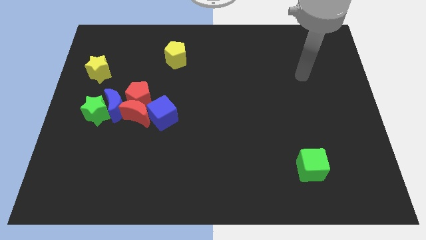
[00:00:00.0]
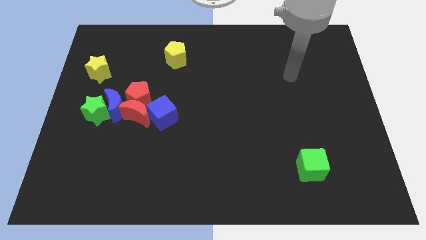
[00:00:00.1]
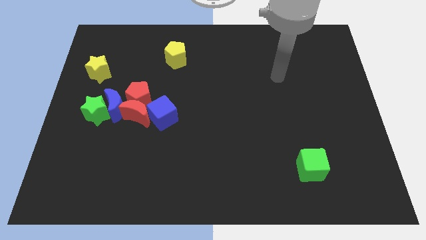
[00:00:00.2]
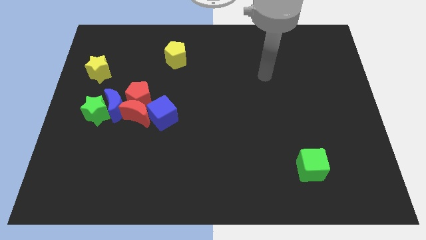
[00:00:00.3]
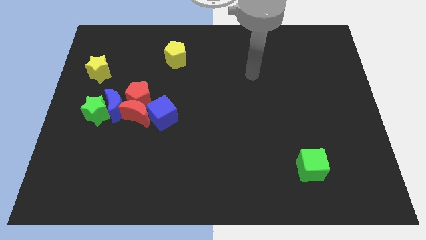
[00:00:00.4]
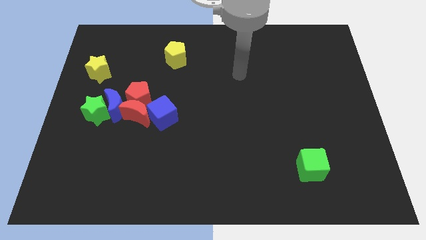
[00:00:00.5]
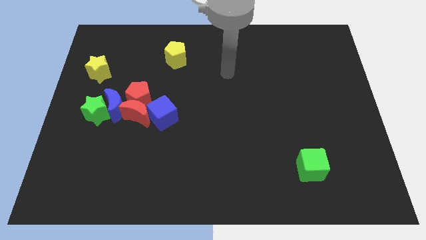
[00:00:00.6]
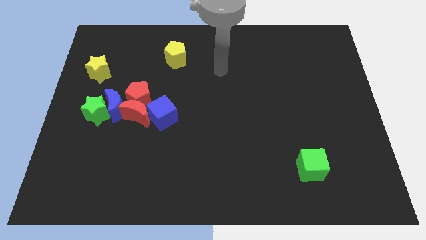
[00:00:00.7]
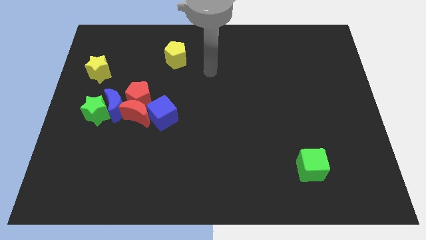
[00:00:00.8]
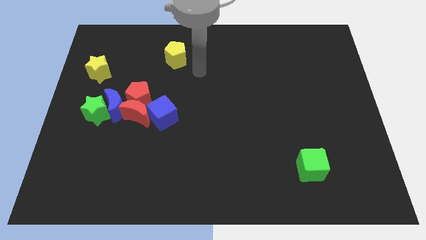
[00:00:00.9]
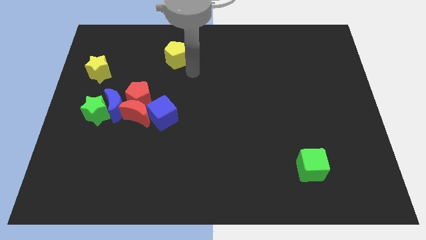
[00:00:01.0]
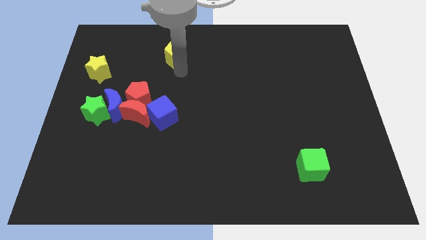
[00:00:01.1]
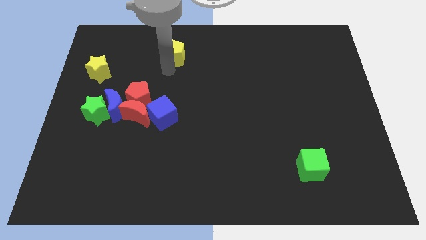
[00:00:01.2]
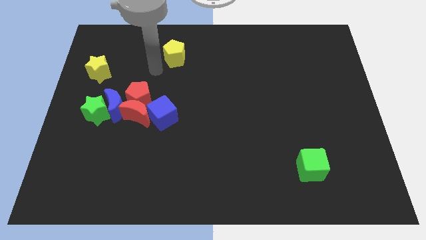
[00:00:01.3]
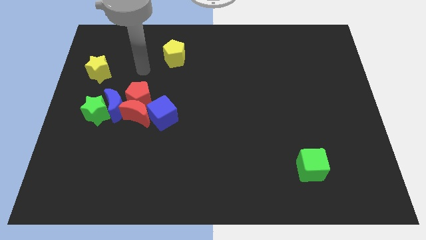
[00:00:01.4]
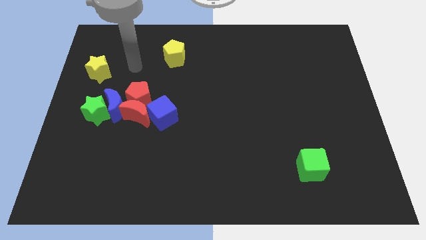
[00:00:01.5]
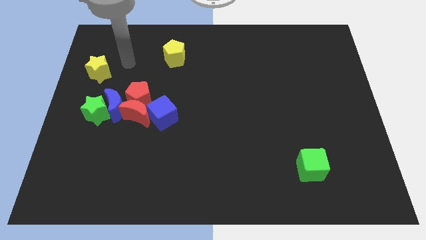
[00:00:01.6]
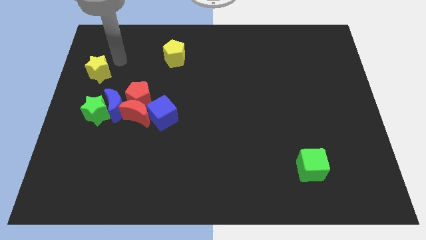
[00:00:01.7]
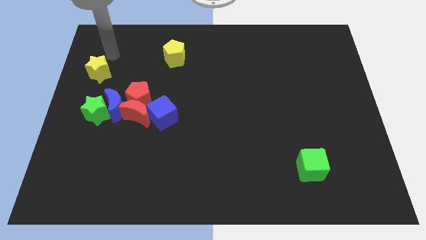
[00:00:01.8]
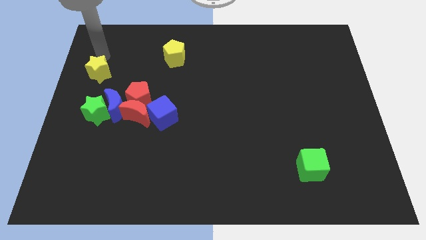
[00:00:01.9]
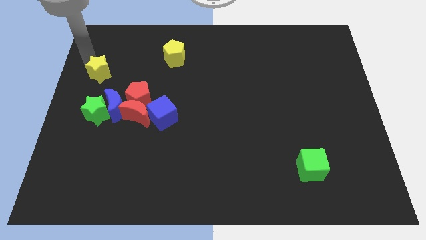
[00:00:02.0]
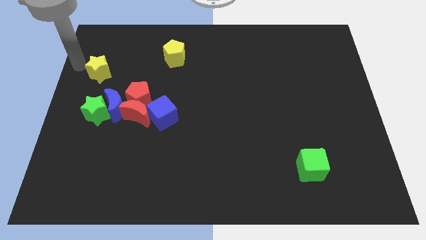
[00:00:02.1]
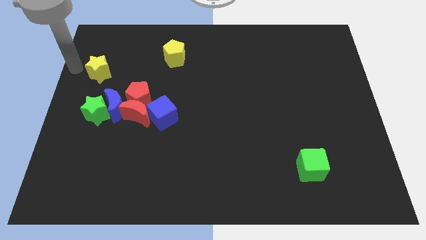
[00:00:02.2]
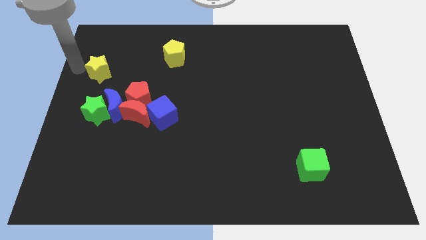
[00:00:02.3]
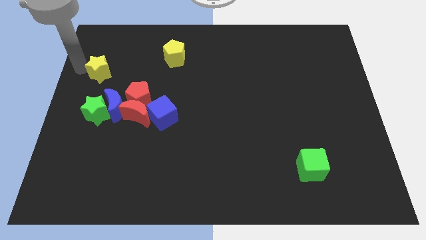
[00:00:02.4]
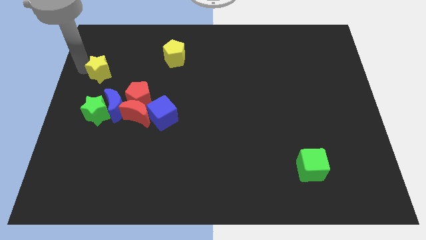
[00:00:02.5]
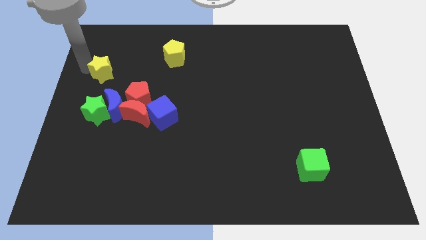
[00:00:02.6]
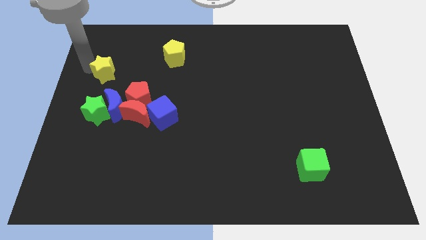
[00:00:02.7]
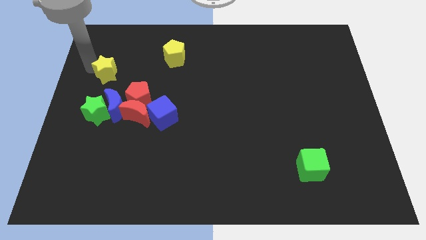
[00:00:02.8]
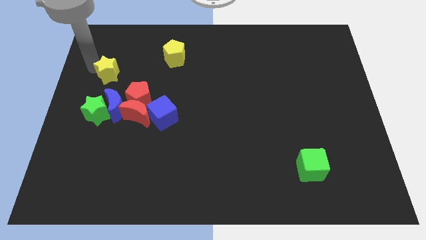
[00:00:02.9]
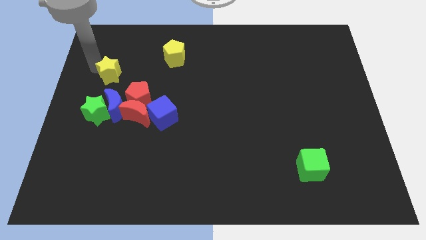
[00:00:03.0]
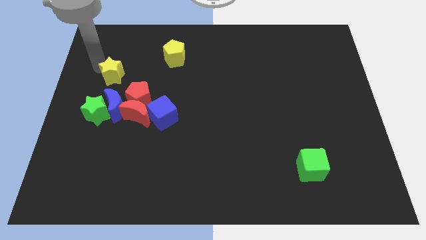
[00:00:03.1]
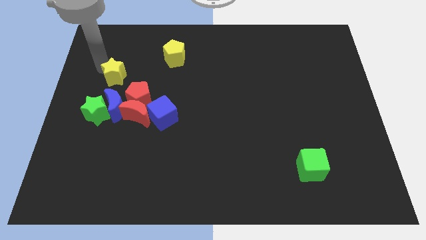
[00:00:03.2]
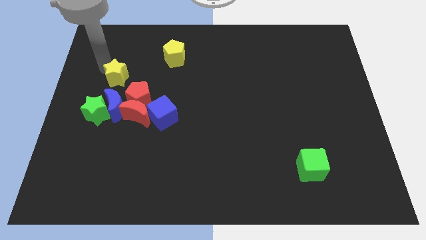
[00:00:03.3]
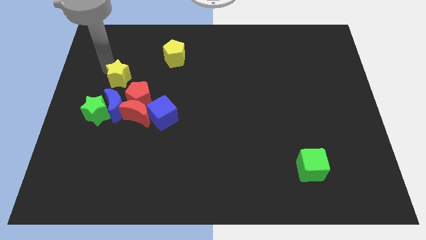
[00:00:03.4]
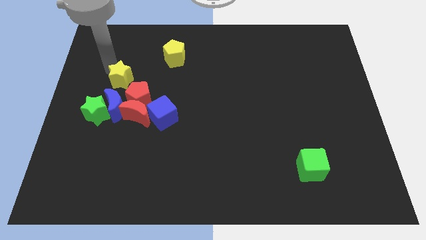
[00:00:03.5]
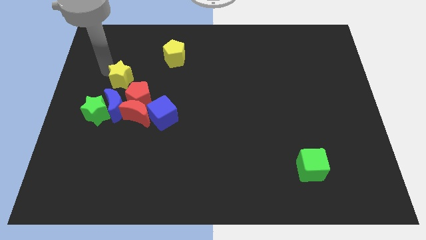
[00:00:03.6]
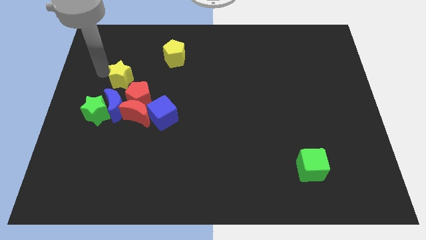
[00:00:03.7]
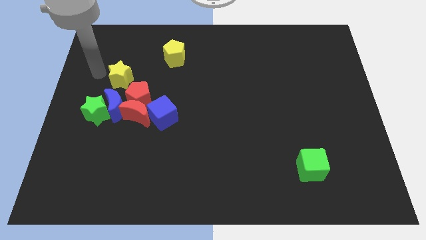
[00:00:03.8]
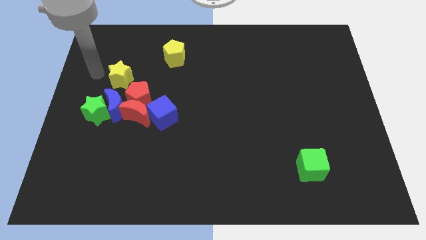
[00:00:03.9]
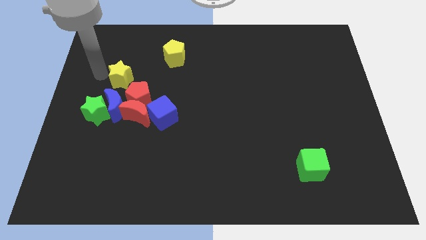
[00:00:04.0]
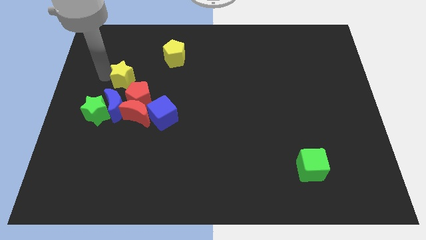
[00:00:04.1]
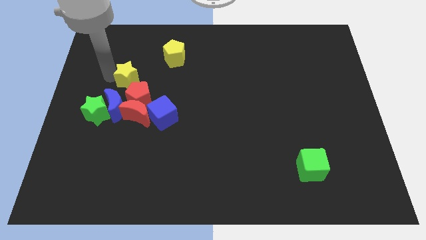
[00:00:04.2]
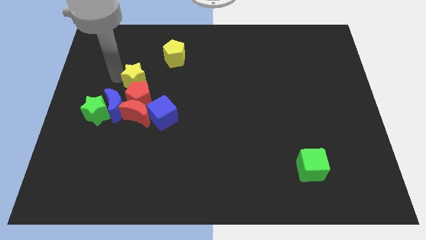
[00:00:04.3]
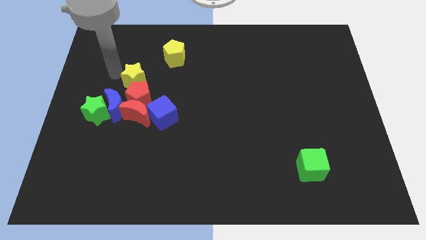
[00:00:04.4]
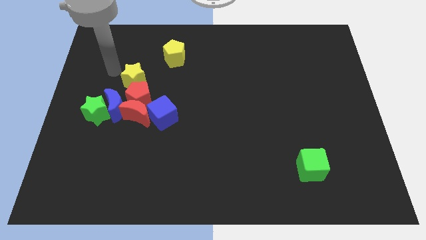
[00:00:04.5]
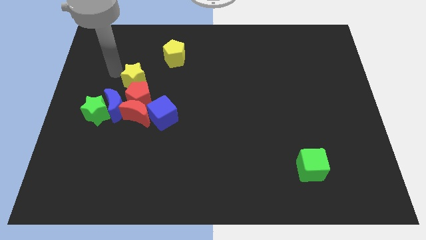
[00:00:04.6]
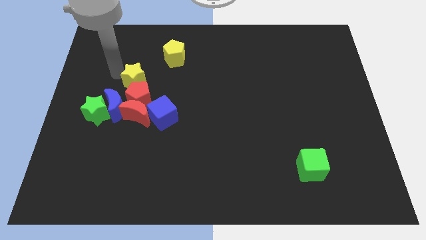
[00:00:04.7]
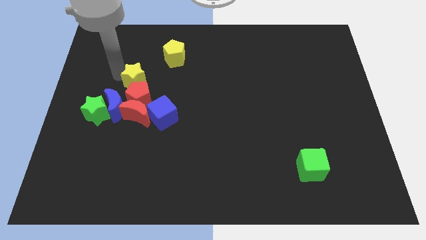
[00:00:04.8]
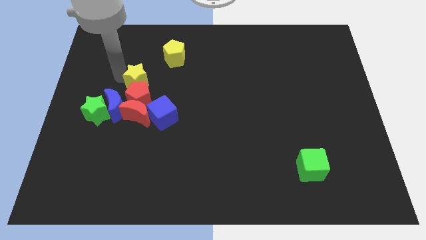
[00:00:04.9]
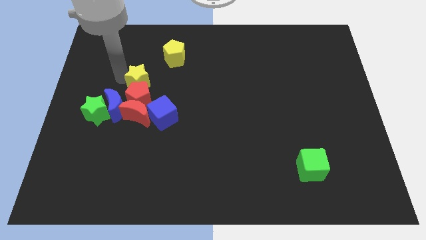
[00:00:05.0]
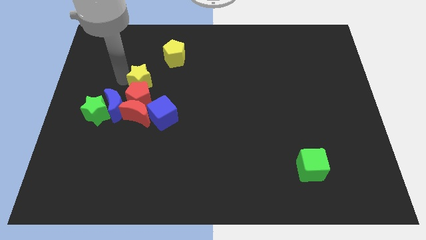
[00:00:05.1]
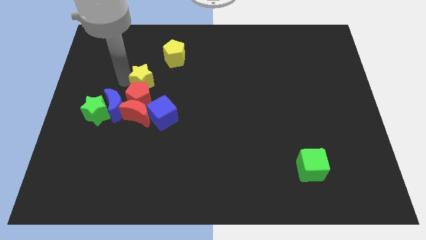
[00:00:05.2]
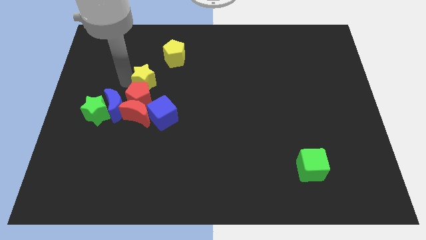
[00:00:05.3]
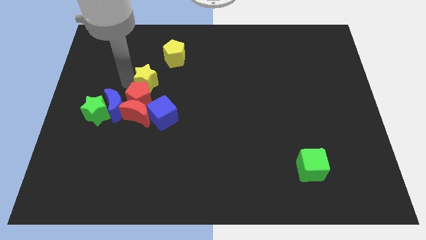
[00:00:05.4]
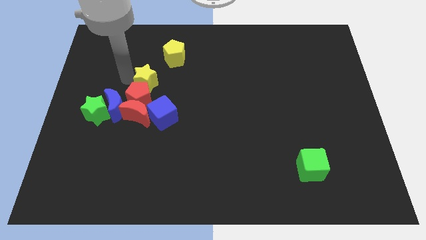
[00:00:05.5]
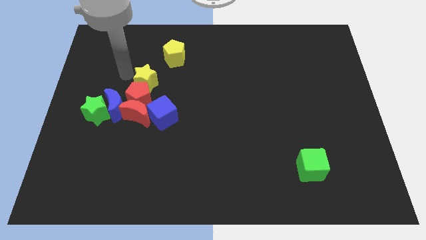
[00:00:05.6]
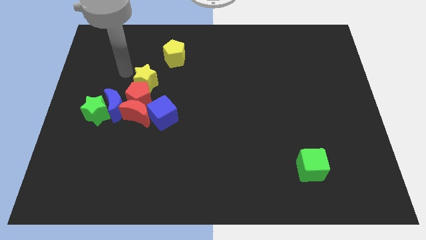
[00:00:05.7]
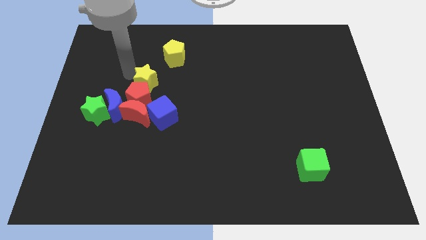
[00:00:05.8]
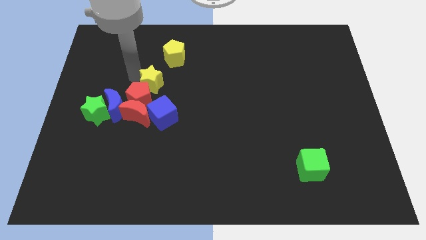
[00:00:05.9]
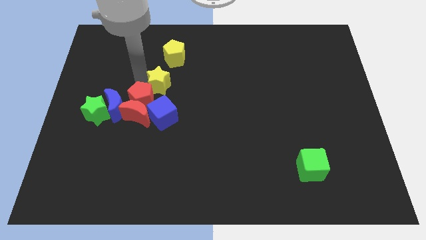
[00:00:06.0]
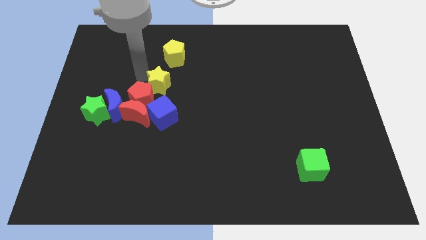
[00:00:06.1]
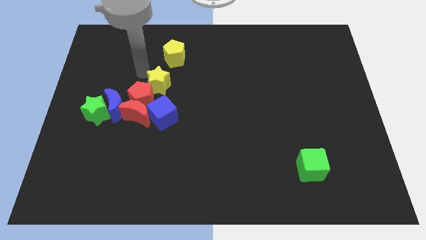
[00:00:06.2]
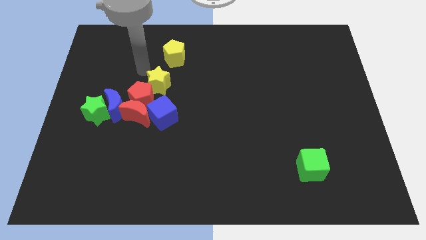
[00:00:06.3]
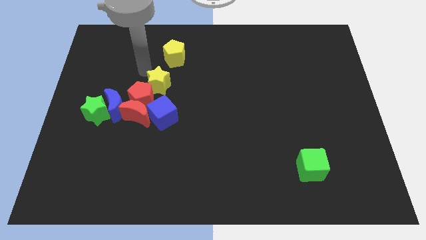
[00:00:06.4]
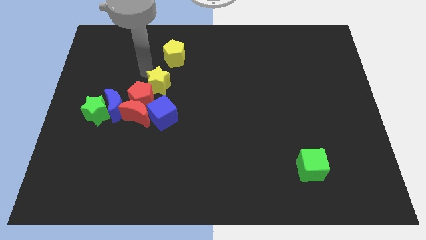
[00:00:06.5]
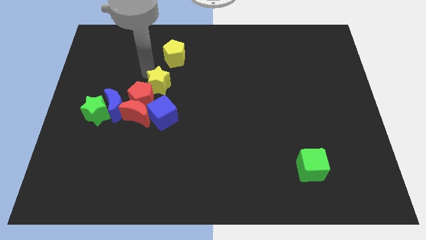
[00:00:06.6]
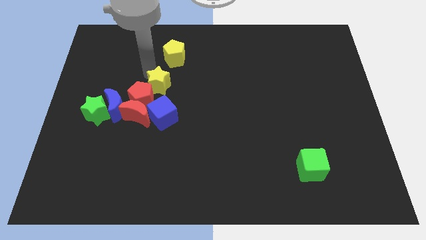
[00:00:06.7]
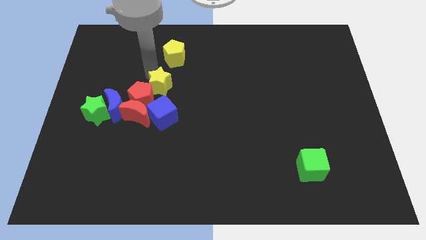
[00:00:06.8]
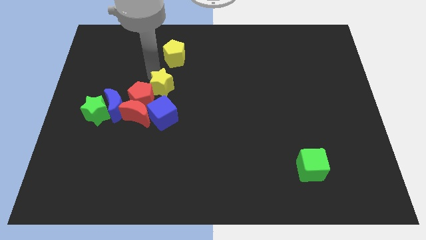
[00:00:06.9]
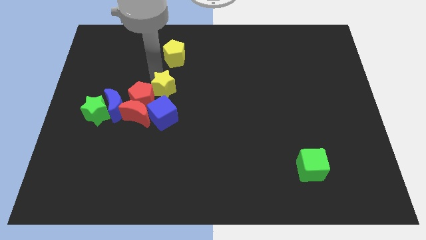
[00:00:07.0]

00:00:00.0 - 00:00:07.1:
push the yellow star to the middle
